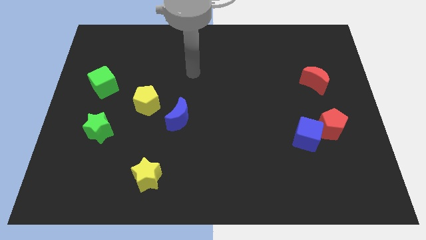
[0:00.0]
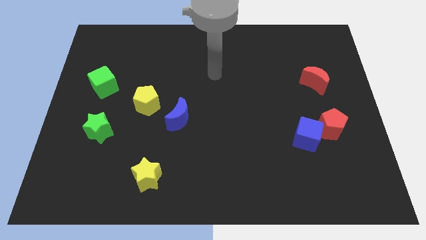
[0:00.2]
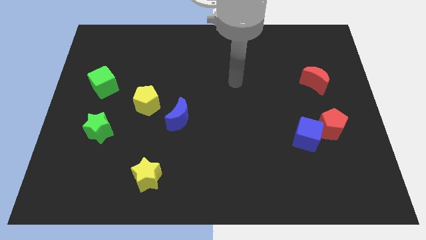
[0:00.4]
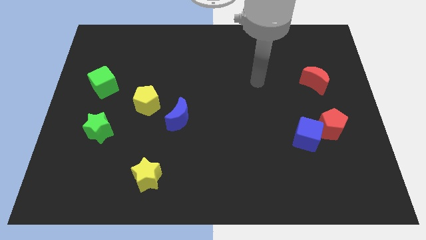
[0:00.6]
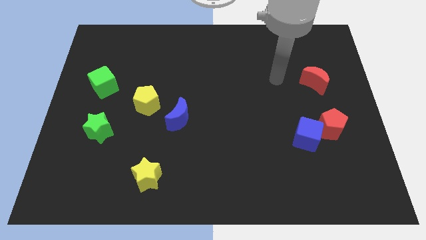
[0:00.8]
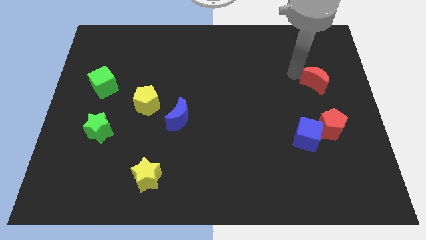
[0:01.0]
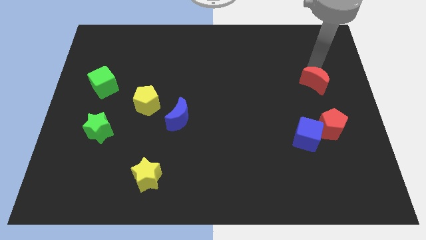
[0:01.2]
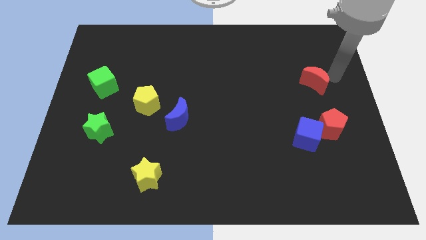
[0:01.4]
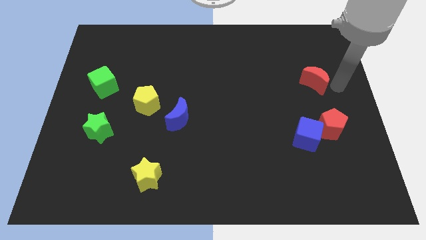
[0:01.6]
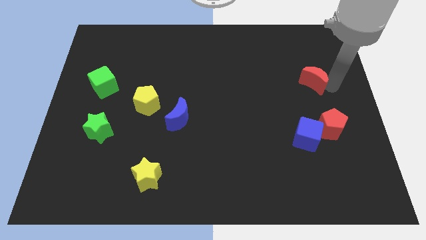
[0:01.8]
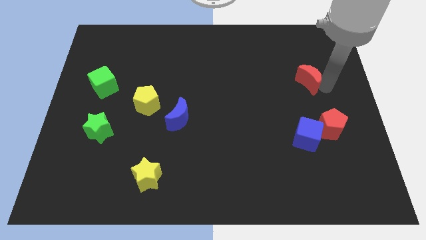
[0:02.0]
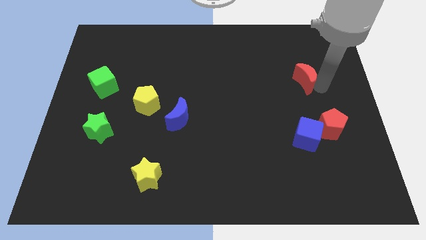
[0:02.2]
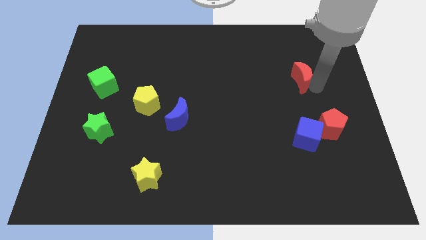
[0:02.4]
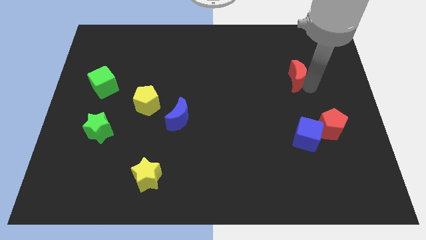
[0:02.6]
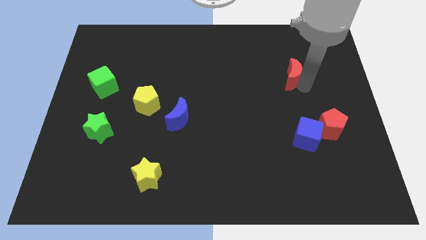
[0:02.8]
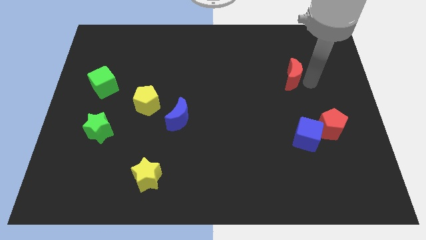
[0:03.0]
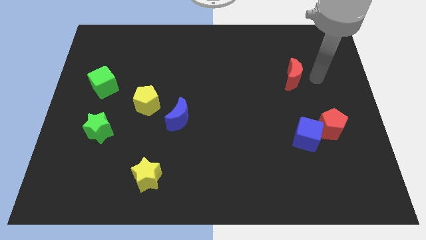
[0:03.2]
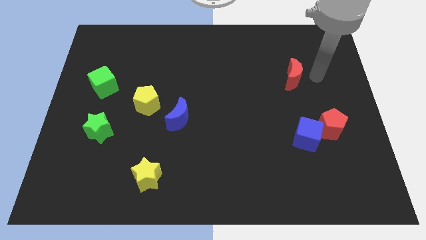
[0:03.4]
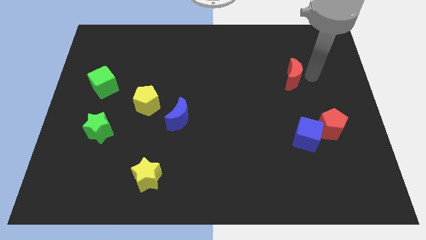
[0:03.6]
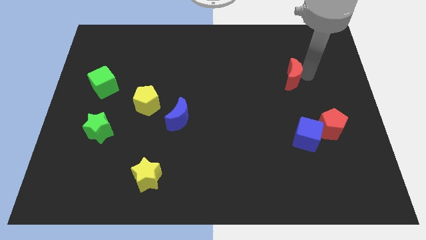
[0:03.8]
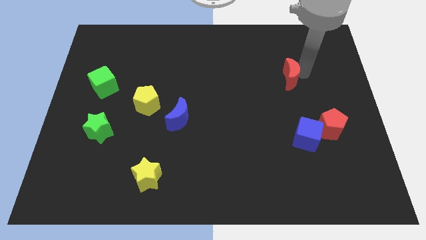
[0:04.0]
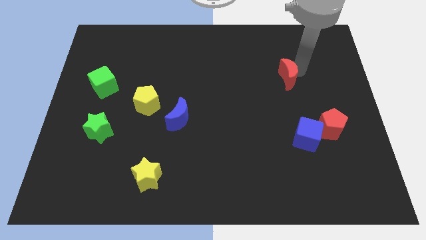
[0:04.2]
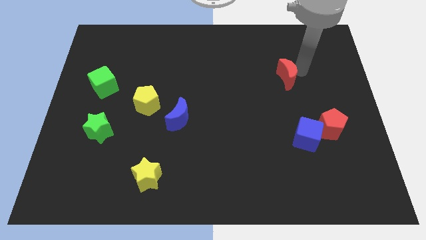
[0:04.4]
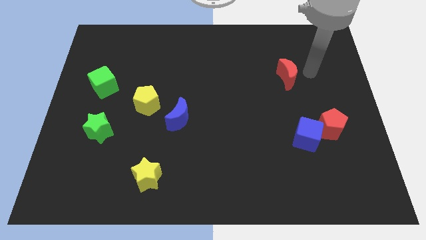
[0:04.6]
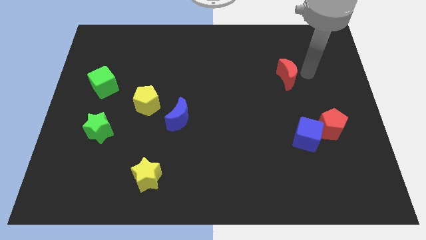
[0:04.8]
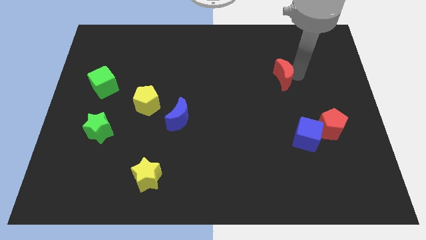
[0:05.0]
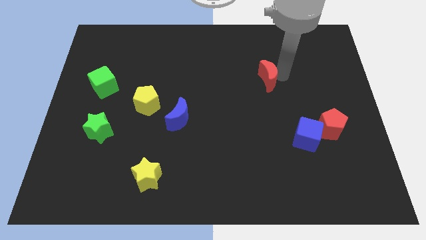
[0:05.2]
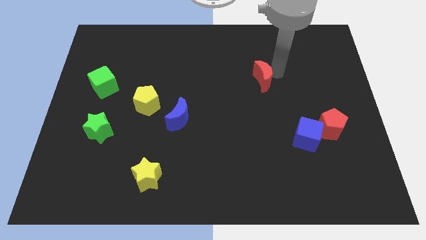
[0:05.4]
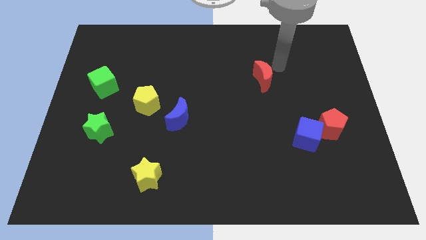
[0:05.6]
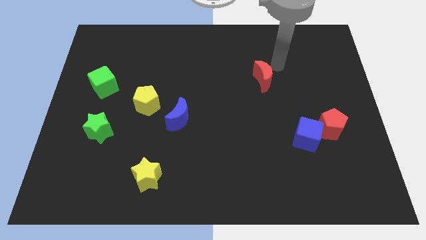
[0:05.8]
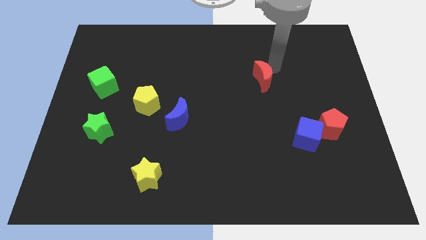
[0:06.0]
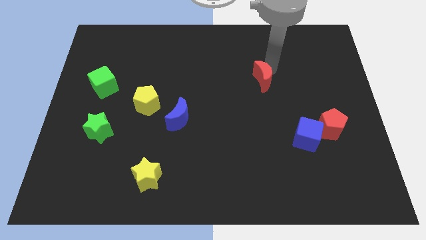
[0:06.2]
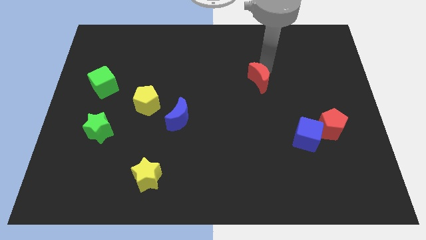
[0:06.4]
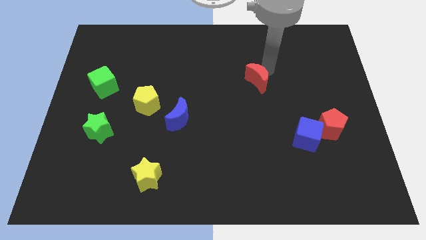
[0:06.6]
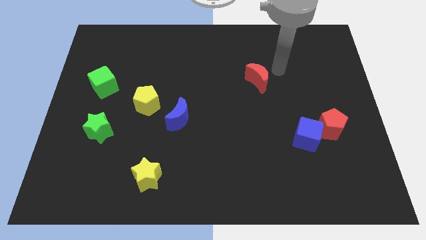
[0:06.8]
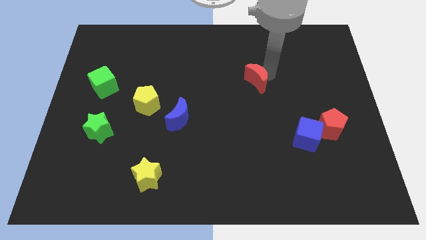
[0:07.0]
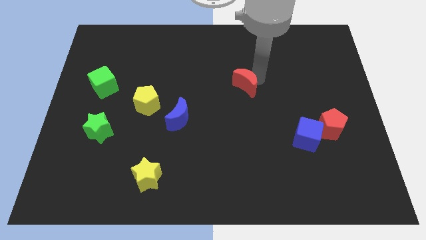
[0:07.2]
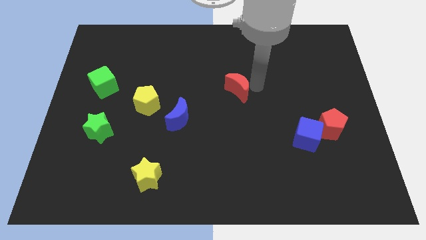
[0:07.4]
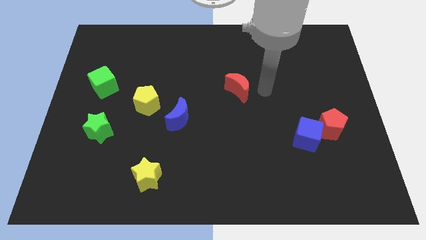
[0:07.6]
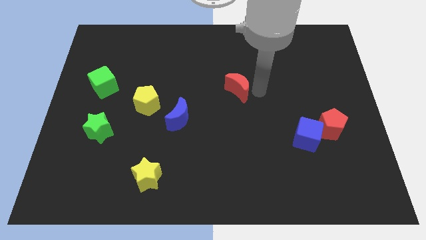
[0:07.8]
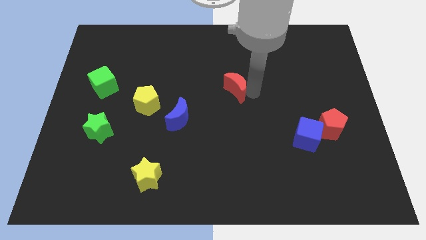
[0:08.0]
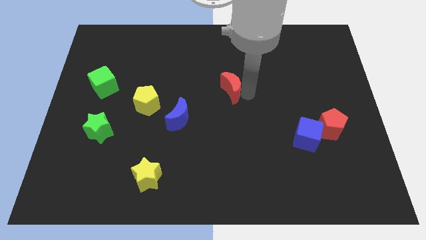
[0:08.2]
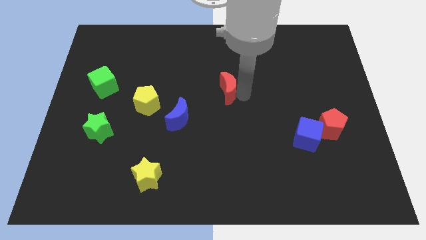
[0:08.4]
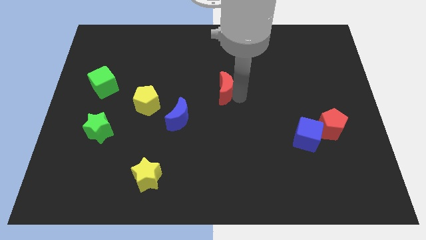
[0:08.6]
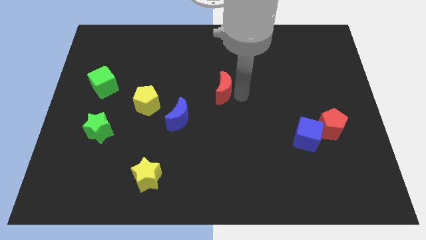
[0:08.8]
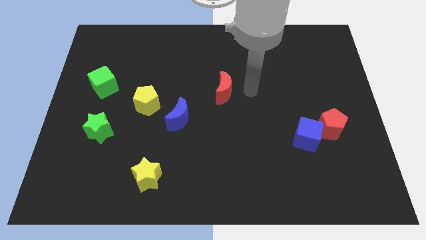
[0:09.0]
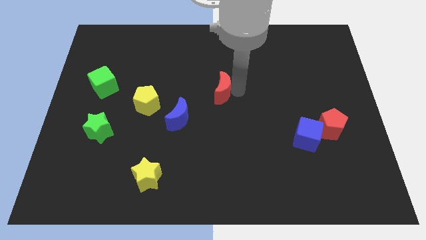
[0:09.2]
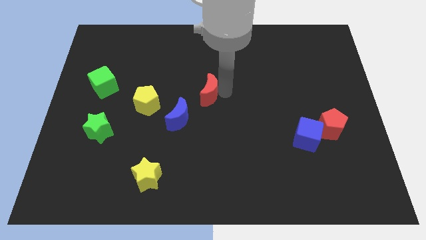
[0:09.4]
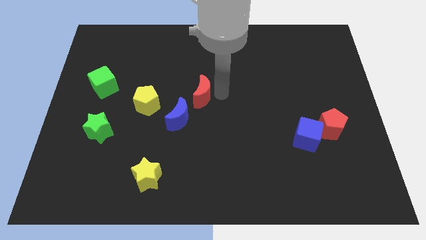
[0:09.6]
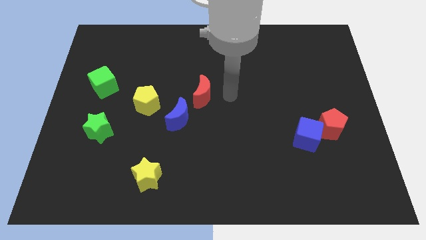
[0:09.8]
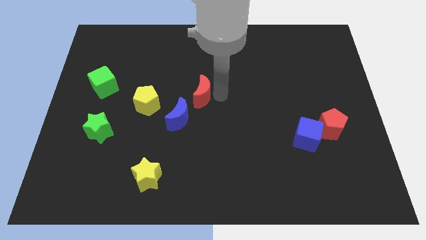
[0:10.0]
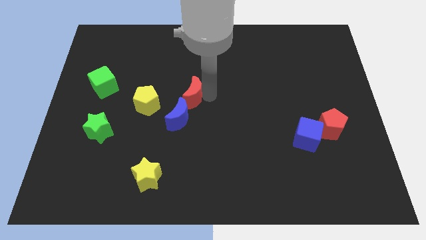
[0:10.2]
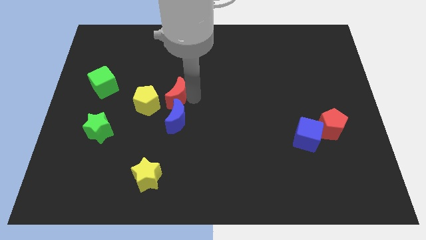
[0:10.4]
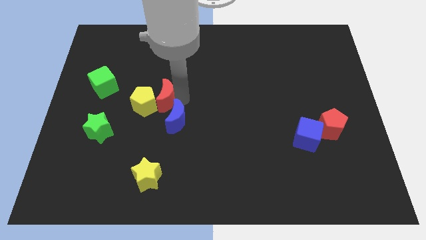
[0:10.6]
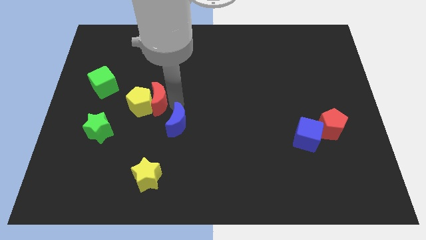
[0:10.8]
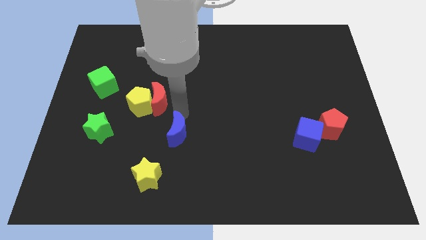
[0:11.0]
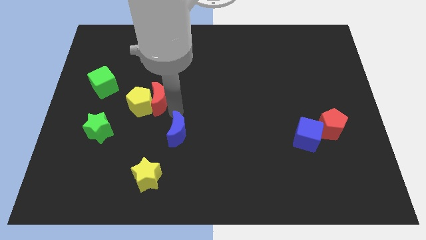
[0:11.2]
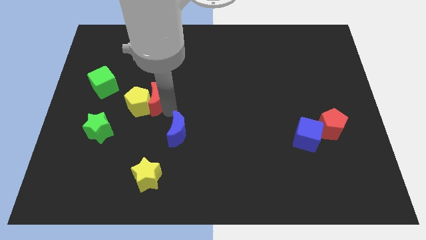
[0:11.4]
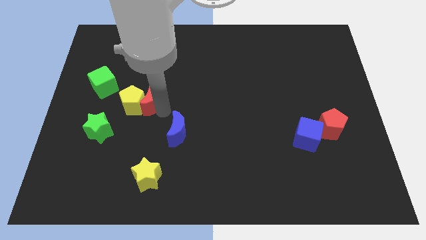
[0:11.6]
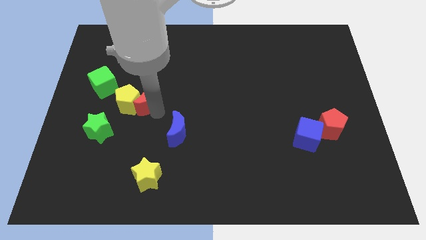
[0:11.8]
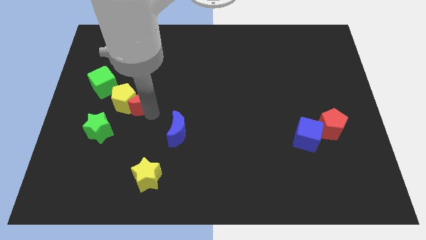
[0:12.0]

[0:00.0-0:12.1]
slide the red moon to the bottom right of the green cube
